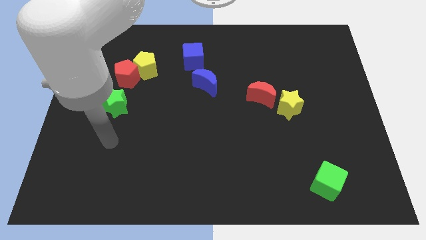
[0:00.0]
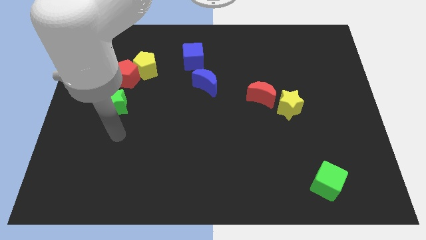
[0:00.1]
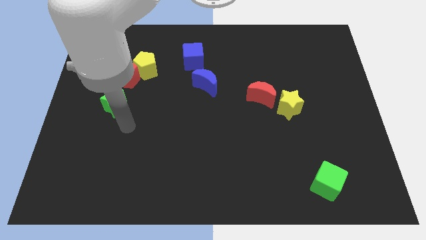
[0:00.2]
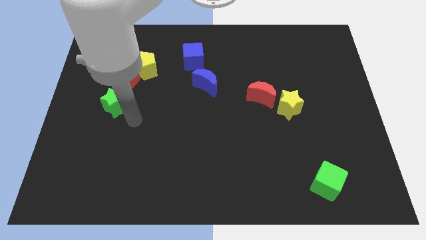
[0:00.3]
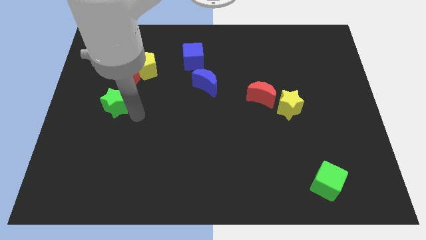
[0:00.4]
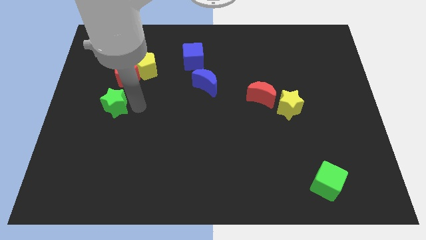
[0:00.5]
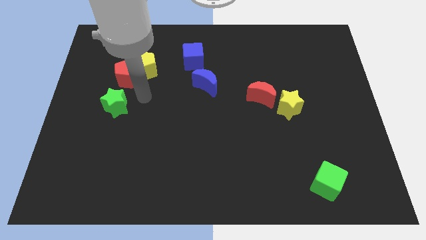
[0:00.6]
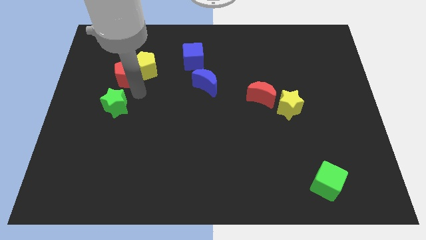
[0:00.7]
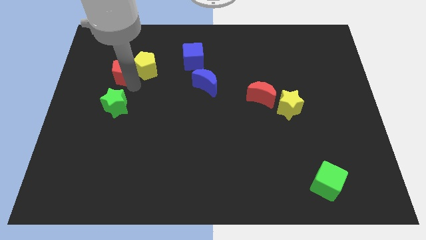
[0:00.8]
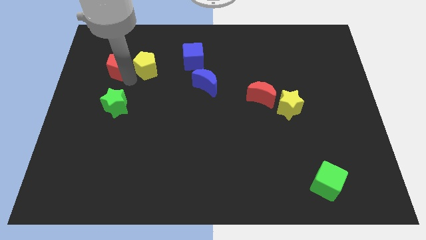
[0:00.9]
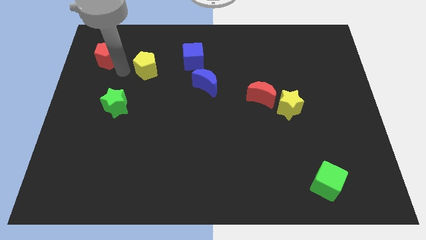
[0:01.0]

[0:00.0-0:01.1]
separate the yellow pentagon from the red pentagon

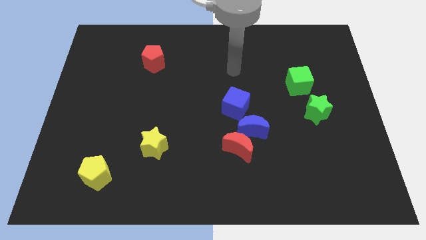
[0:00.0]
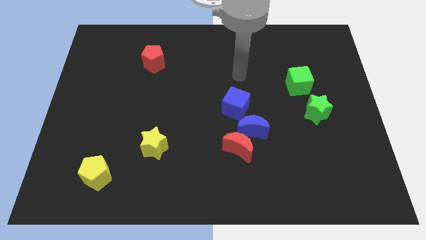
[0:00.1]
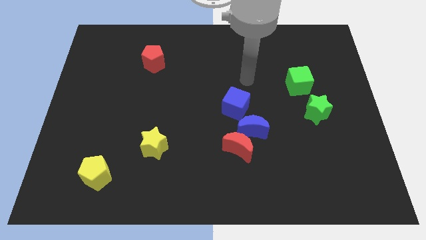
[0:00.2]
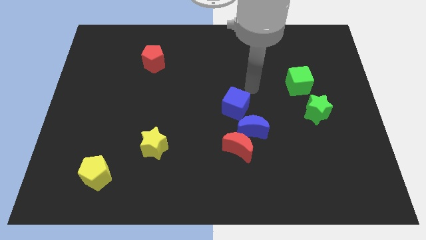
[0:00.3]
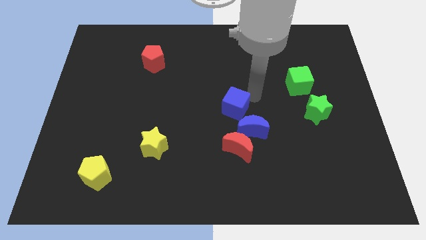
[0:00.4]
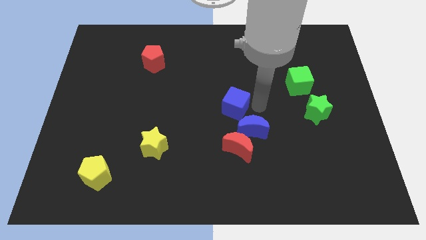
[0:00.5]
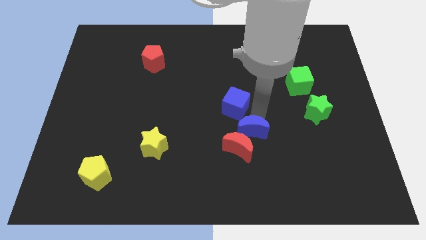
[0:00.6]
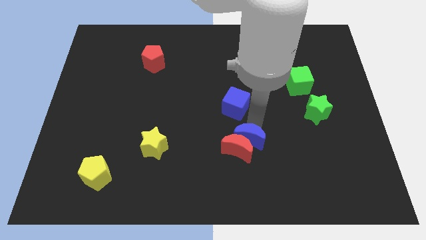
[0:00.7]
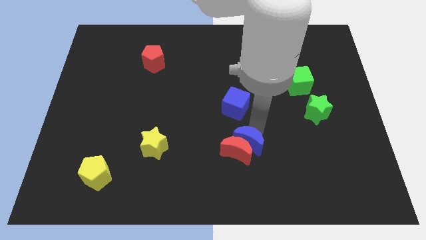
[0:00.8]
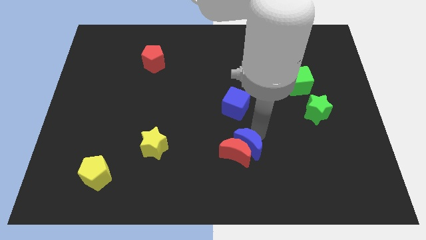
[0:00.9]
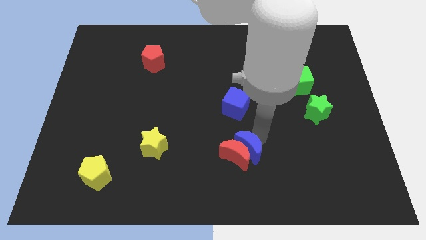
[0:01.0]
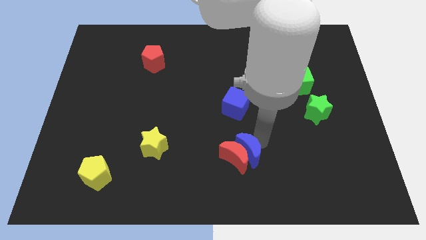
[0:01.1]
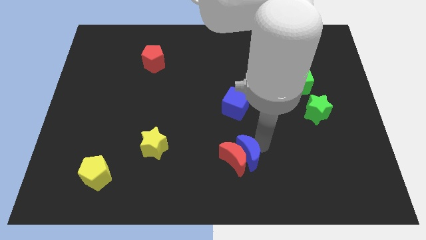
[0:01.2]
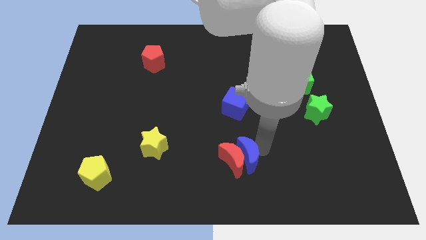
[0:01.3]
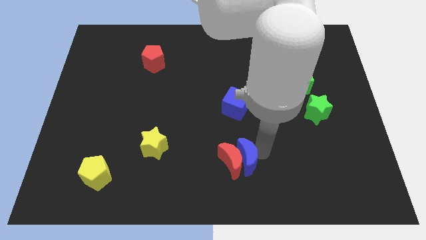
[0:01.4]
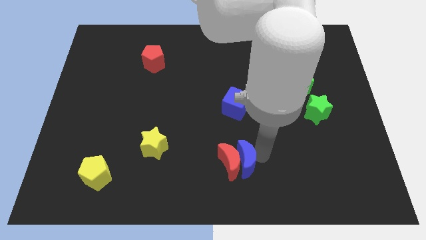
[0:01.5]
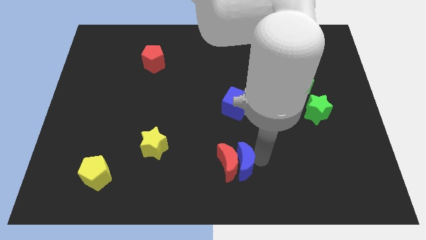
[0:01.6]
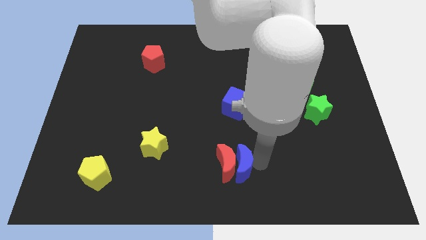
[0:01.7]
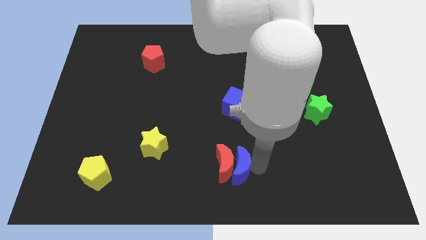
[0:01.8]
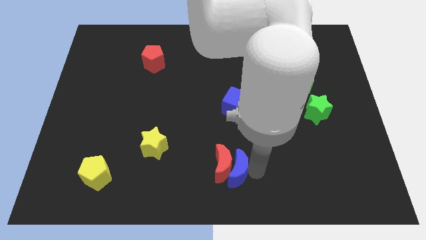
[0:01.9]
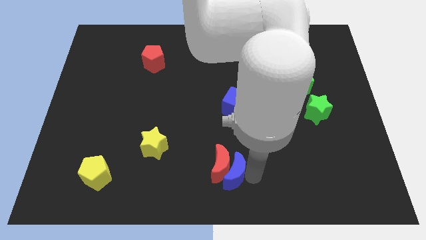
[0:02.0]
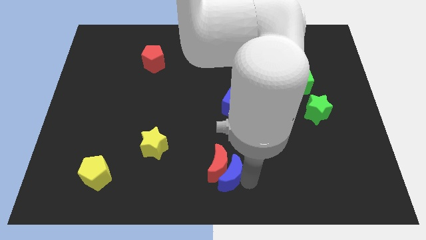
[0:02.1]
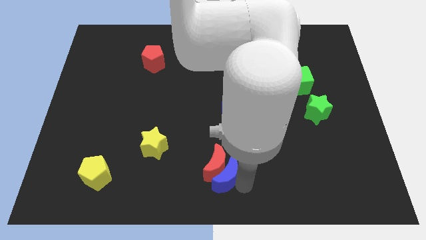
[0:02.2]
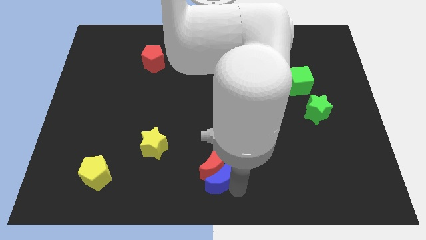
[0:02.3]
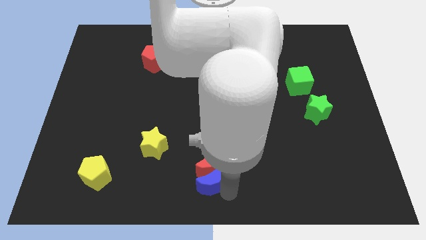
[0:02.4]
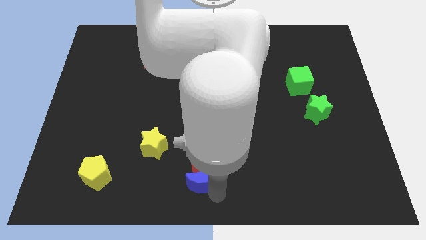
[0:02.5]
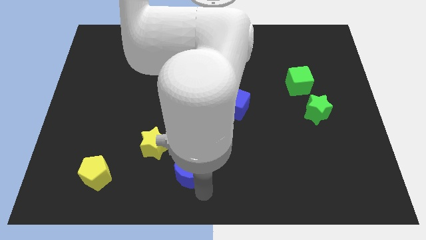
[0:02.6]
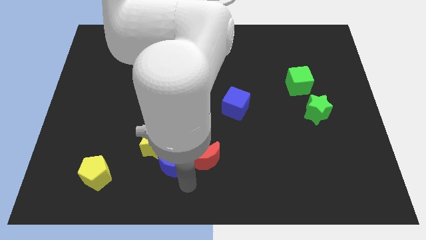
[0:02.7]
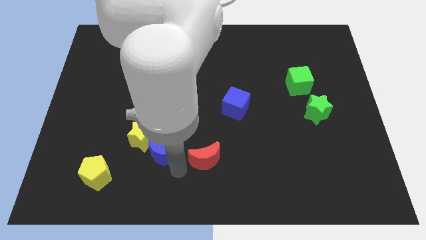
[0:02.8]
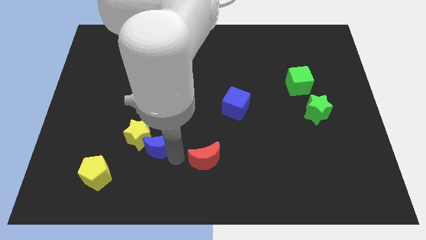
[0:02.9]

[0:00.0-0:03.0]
move the red moon away from the blue moon

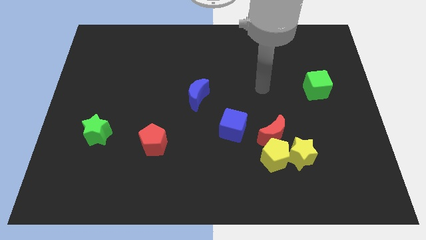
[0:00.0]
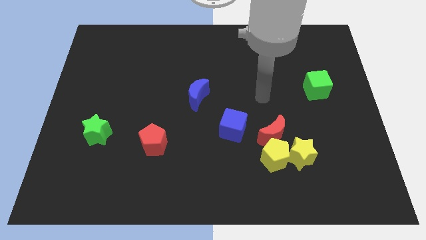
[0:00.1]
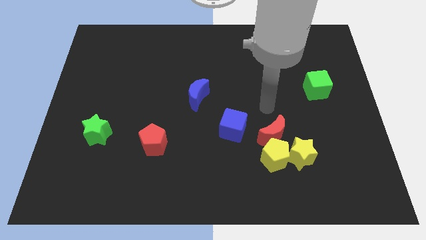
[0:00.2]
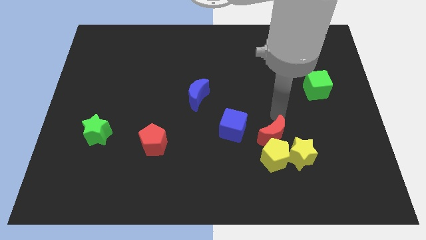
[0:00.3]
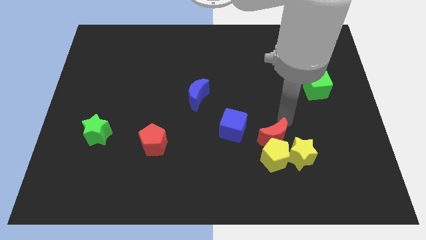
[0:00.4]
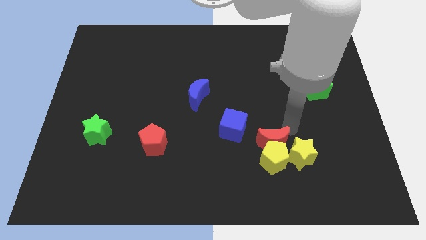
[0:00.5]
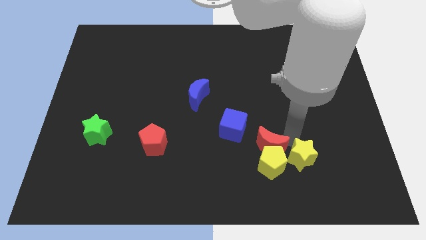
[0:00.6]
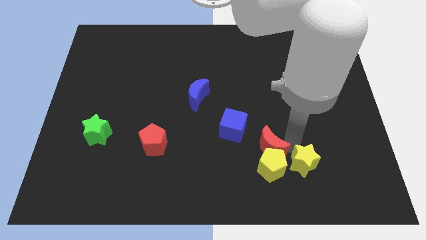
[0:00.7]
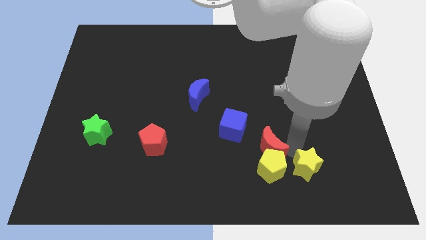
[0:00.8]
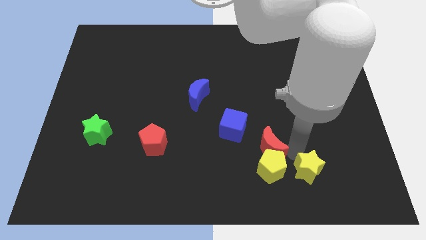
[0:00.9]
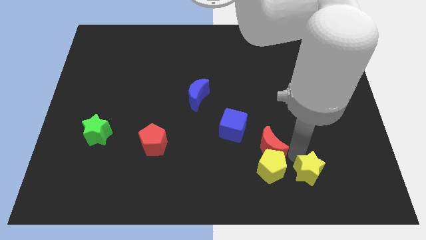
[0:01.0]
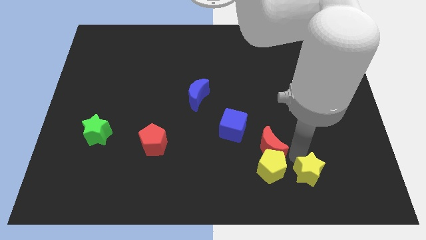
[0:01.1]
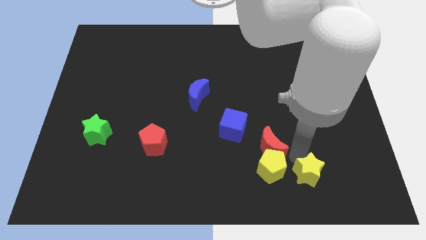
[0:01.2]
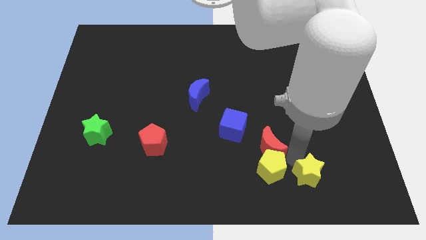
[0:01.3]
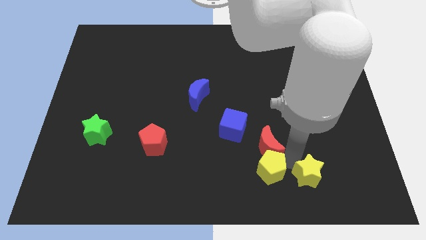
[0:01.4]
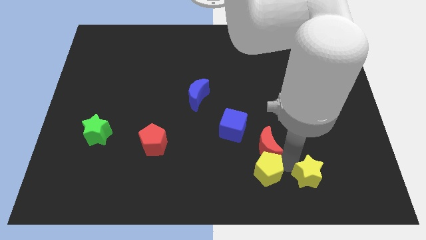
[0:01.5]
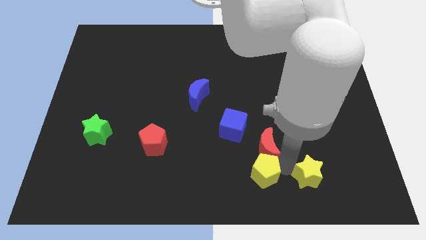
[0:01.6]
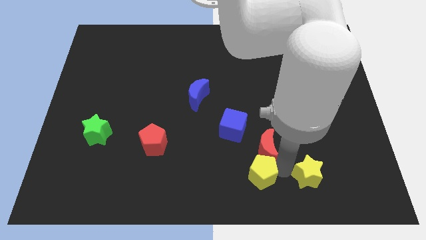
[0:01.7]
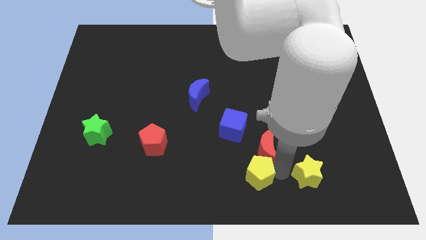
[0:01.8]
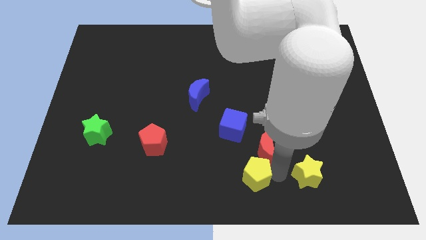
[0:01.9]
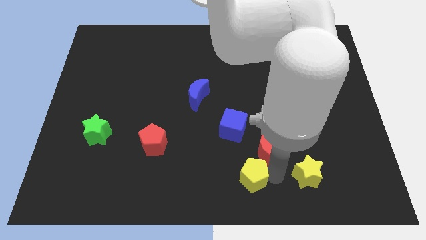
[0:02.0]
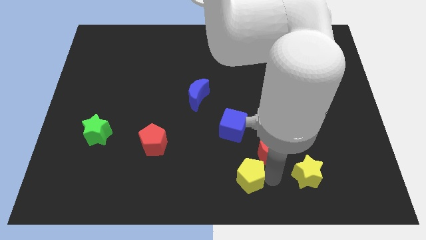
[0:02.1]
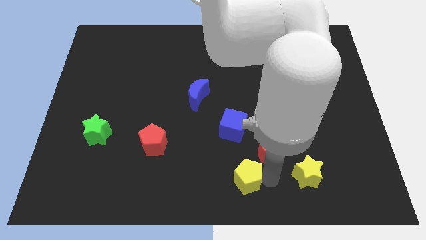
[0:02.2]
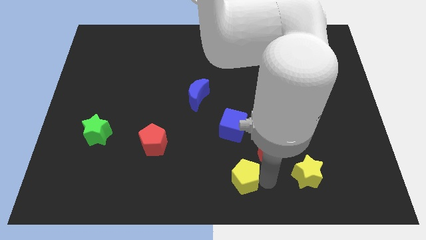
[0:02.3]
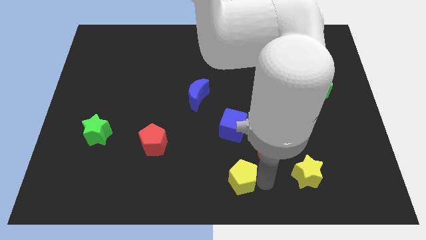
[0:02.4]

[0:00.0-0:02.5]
move the yellow pentagon away from the yellow star and red moon

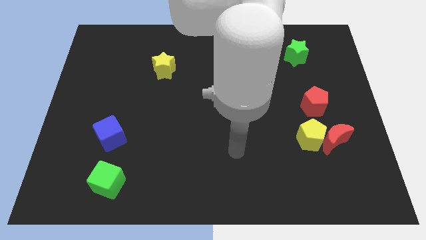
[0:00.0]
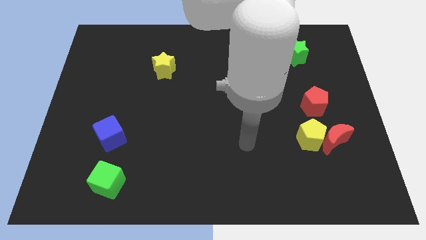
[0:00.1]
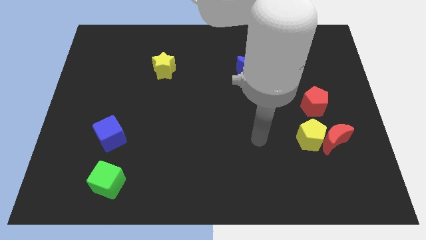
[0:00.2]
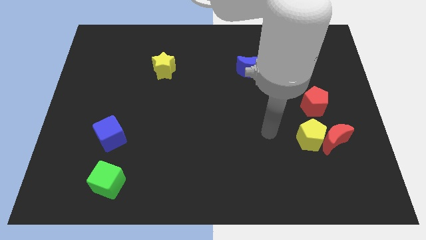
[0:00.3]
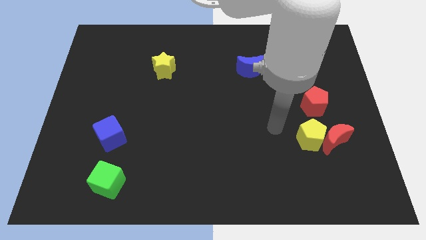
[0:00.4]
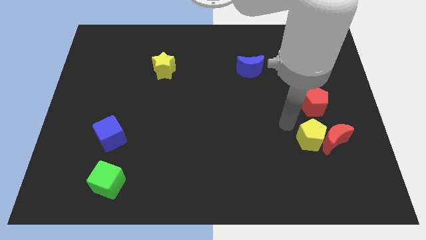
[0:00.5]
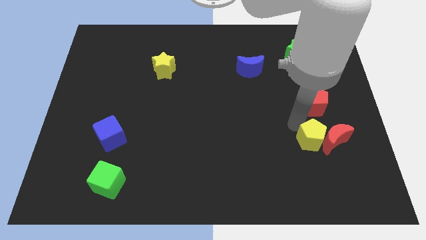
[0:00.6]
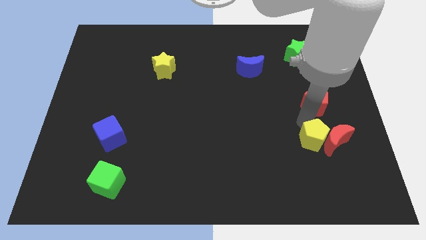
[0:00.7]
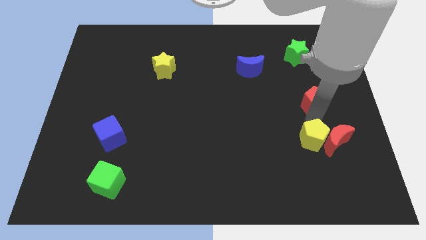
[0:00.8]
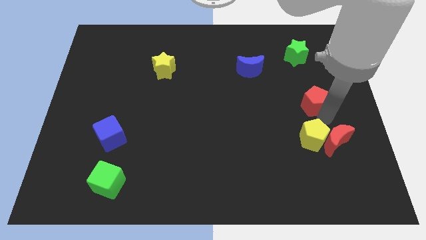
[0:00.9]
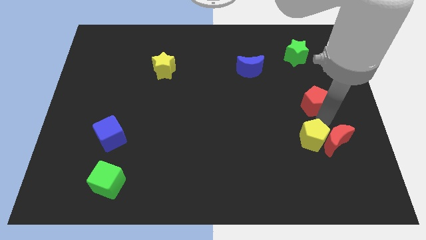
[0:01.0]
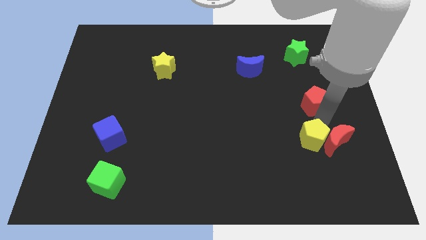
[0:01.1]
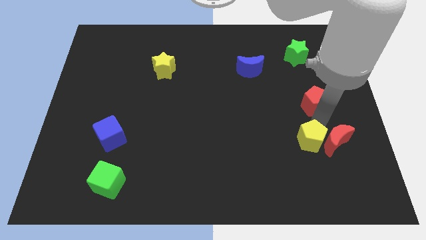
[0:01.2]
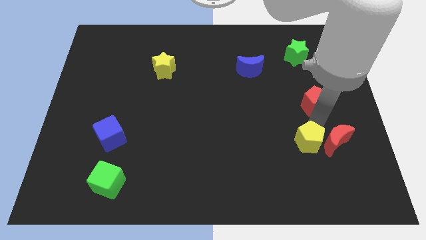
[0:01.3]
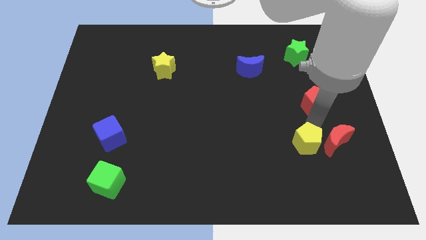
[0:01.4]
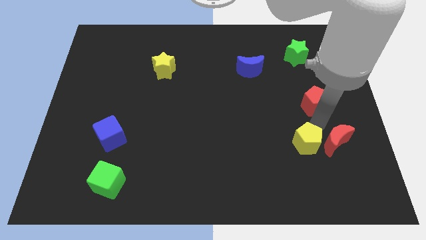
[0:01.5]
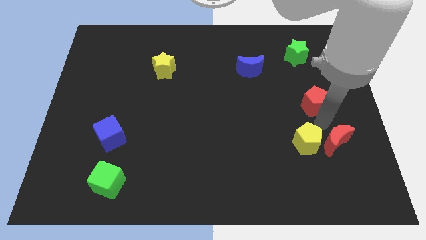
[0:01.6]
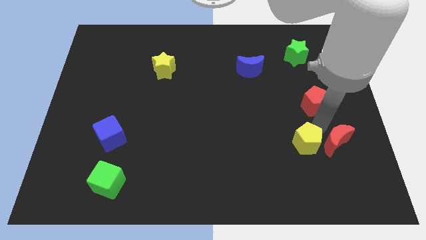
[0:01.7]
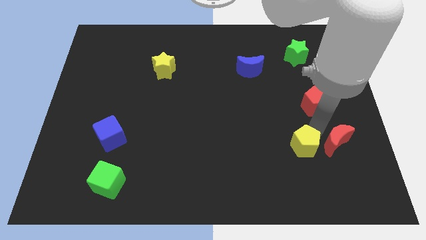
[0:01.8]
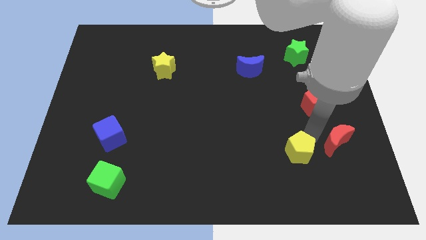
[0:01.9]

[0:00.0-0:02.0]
pull the yellow pentagon apart from the red moon and red pentagon

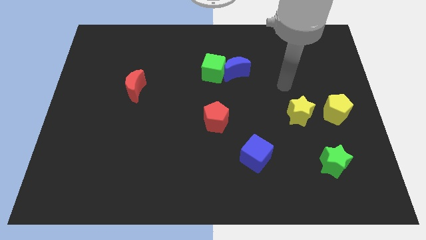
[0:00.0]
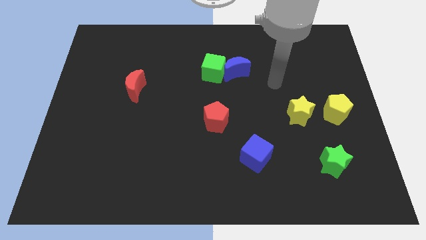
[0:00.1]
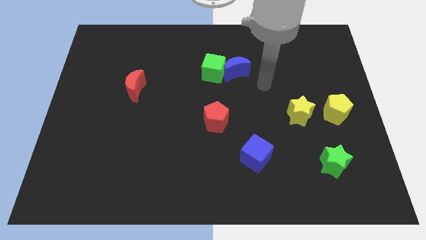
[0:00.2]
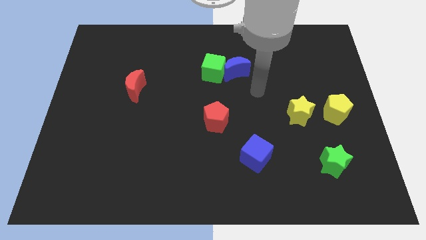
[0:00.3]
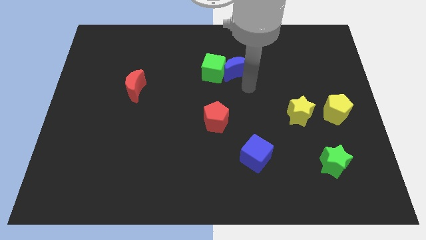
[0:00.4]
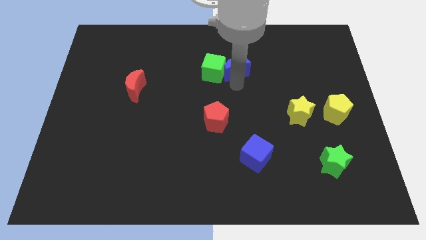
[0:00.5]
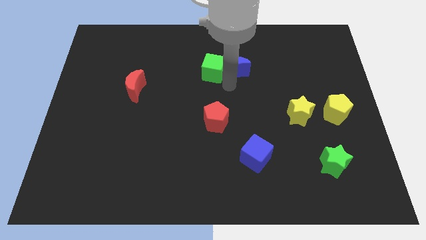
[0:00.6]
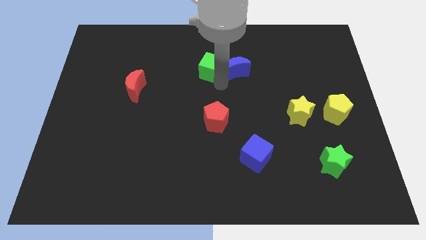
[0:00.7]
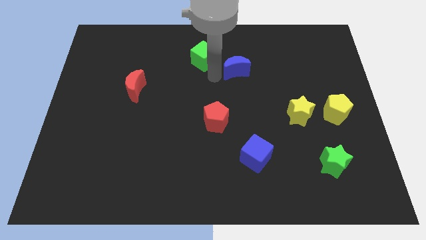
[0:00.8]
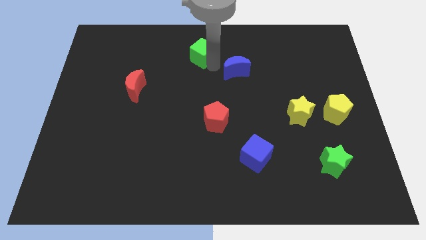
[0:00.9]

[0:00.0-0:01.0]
pull the blue moon apart from the green cube
